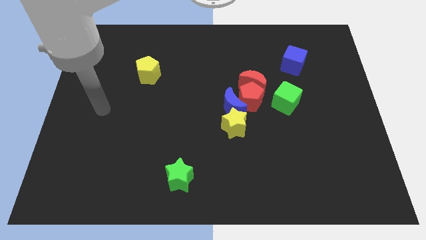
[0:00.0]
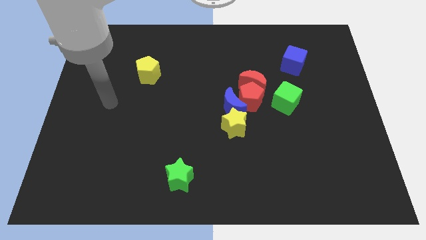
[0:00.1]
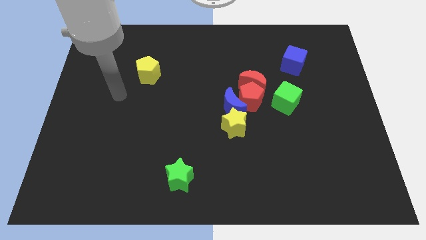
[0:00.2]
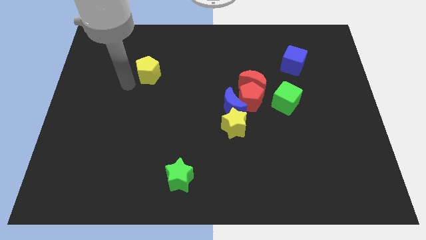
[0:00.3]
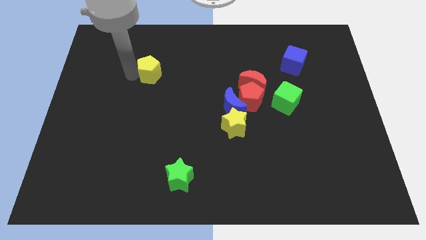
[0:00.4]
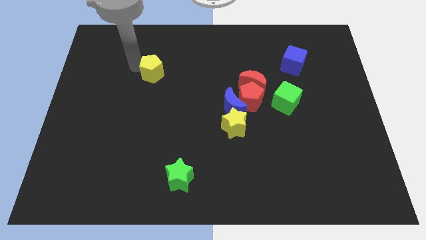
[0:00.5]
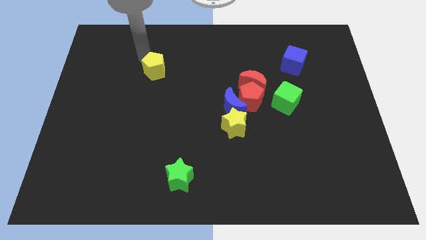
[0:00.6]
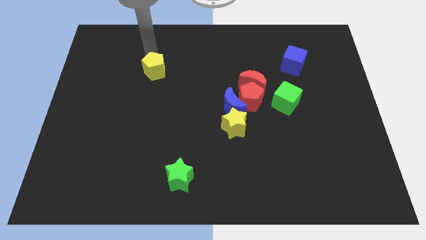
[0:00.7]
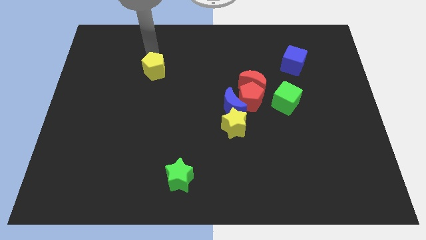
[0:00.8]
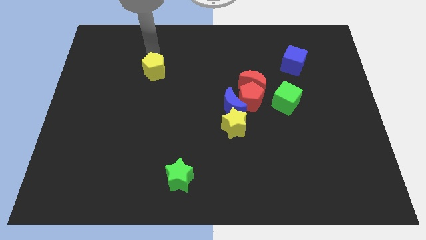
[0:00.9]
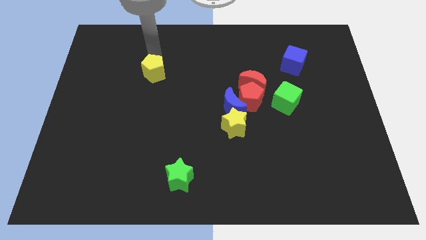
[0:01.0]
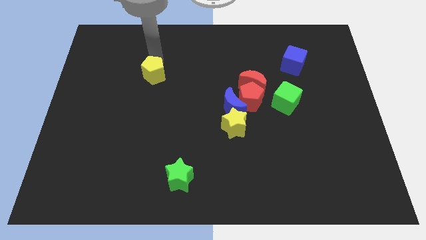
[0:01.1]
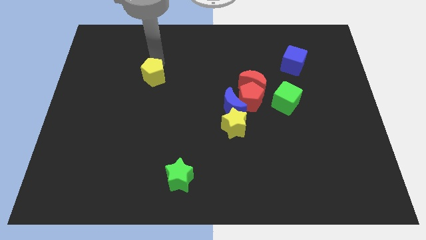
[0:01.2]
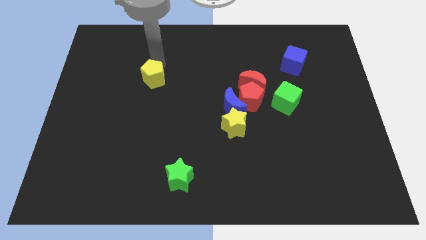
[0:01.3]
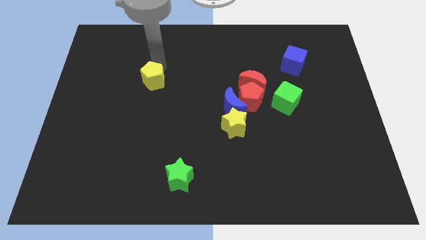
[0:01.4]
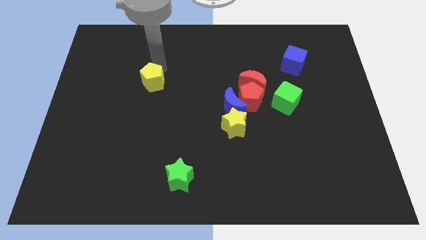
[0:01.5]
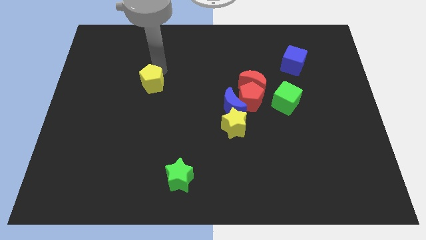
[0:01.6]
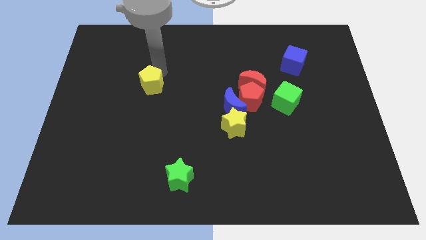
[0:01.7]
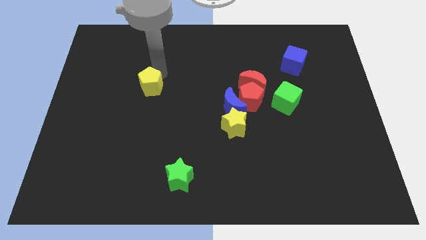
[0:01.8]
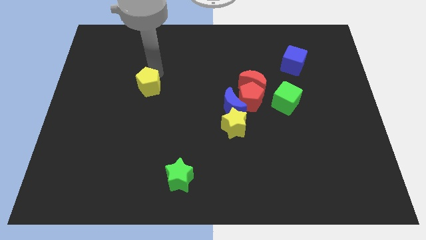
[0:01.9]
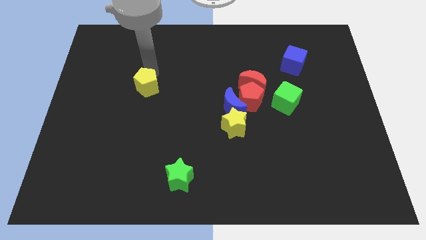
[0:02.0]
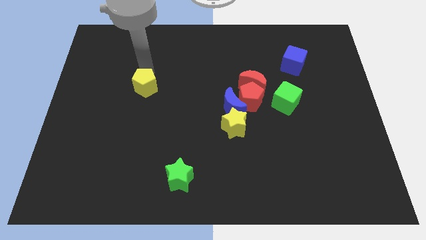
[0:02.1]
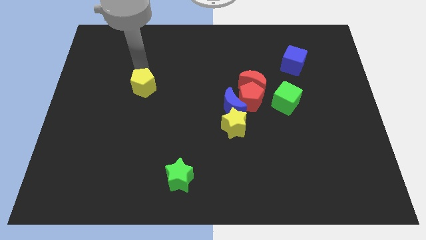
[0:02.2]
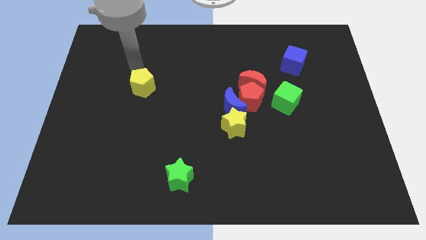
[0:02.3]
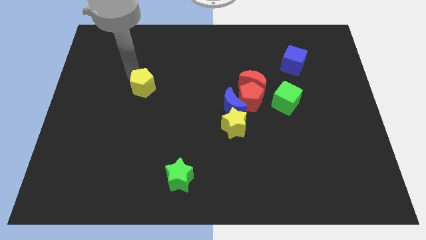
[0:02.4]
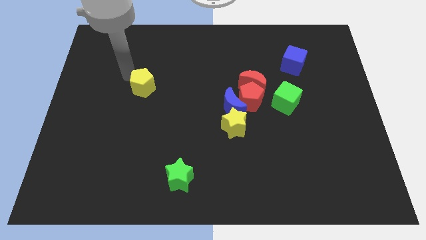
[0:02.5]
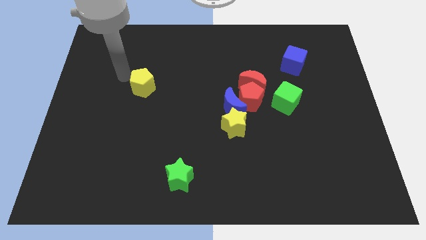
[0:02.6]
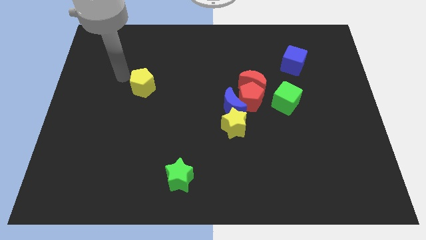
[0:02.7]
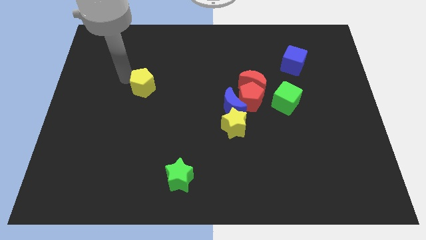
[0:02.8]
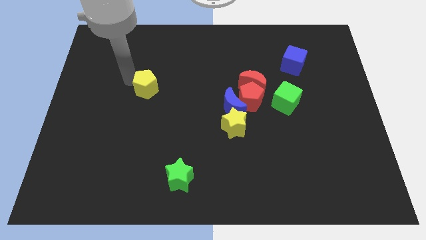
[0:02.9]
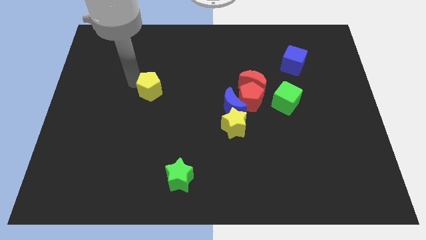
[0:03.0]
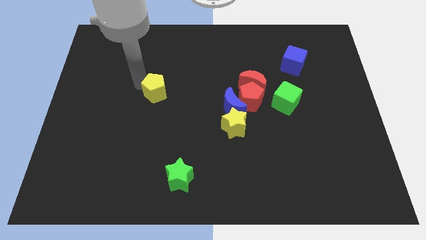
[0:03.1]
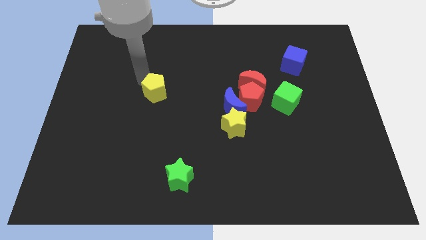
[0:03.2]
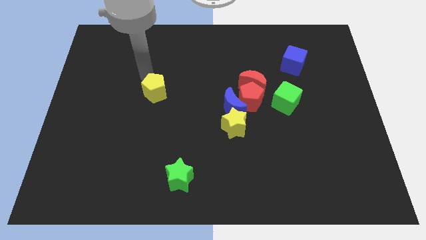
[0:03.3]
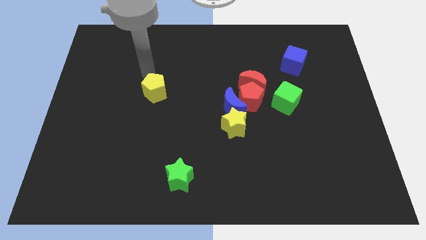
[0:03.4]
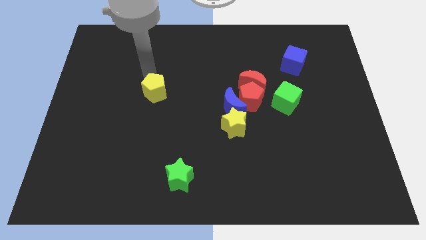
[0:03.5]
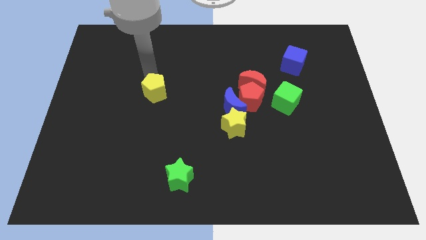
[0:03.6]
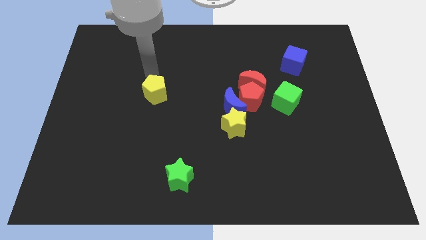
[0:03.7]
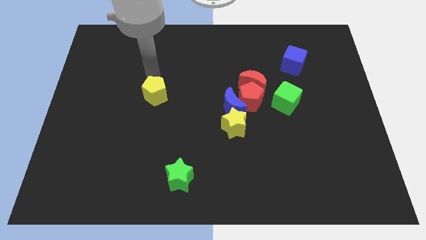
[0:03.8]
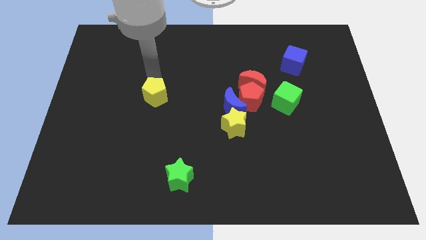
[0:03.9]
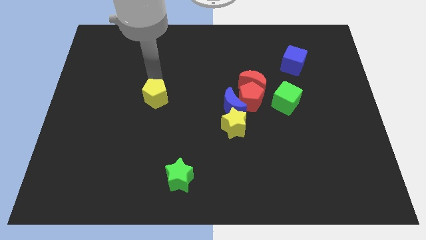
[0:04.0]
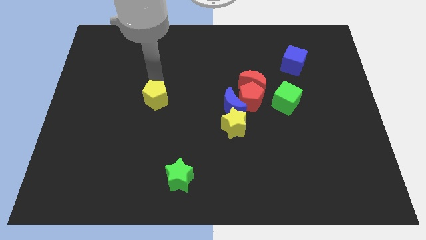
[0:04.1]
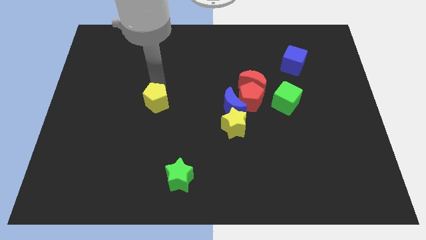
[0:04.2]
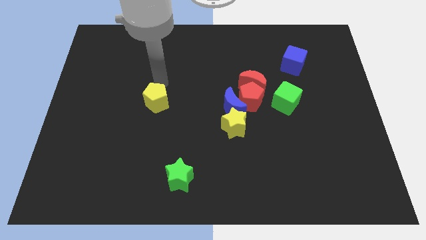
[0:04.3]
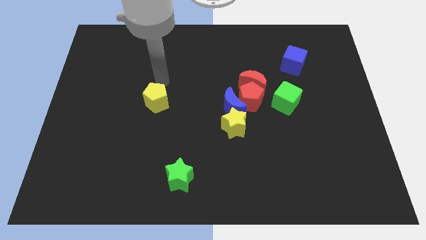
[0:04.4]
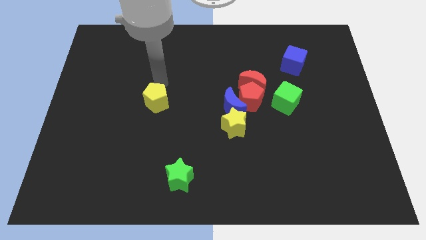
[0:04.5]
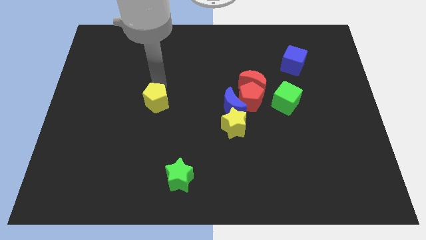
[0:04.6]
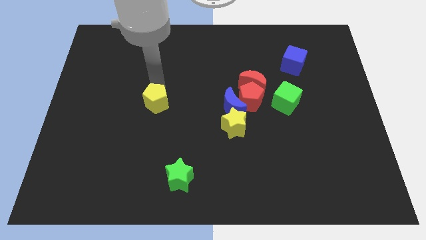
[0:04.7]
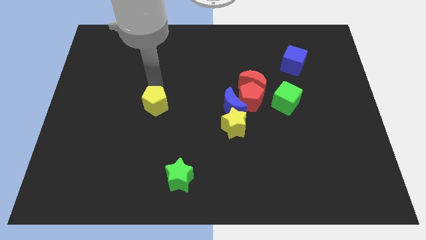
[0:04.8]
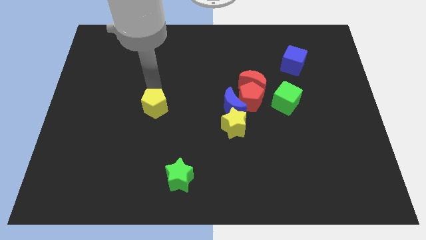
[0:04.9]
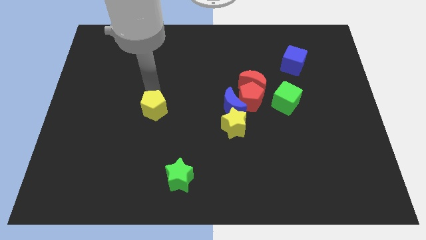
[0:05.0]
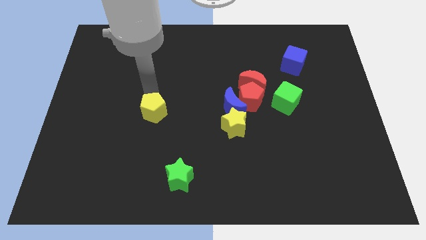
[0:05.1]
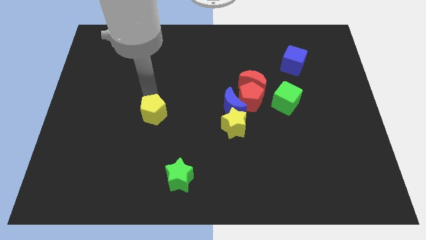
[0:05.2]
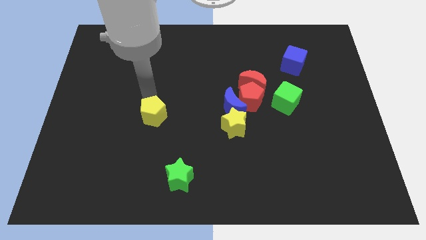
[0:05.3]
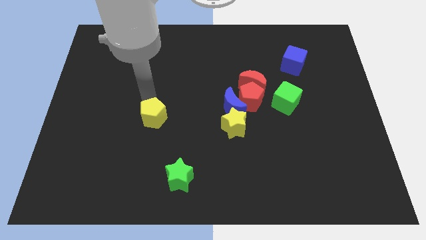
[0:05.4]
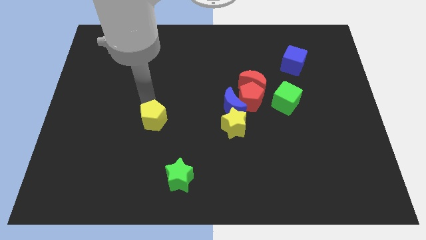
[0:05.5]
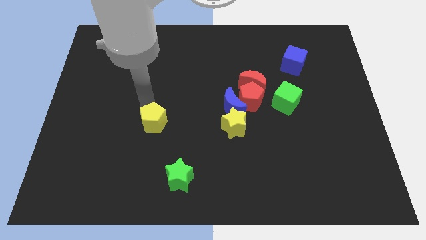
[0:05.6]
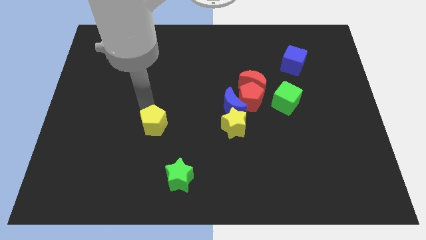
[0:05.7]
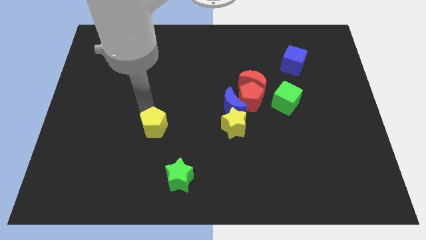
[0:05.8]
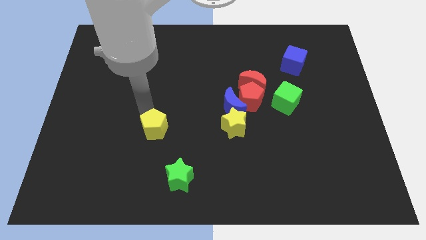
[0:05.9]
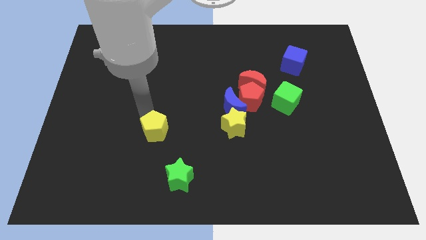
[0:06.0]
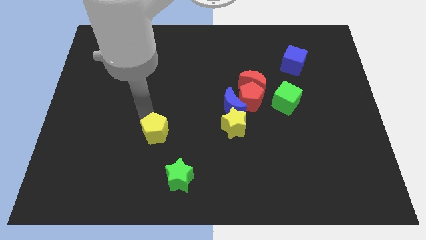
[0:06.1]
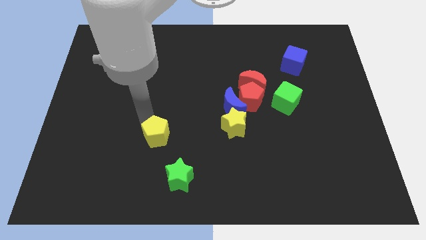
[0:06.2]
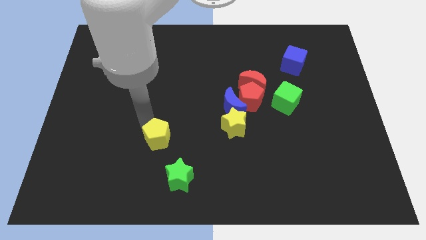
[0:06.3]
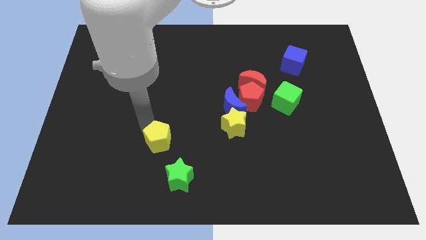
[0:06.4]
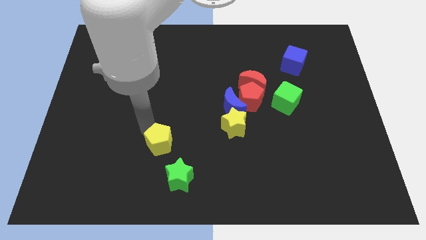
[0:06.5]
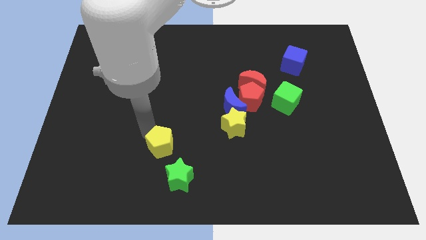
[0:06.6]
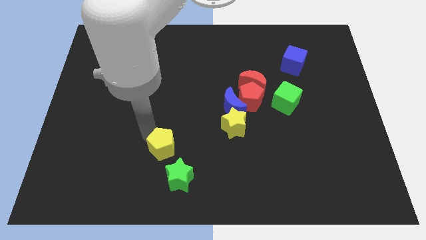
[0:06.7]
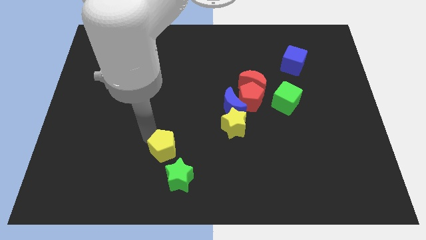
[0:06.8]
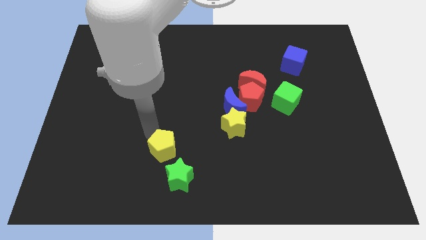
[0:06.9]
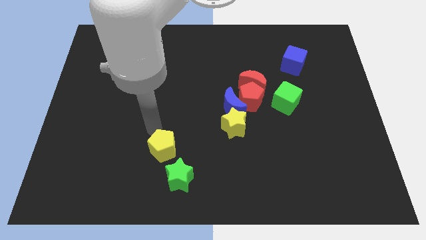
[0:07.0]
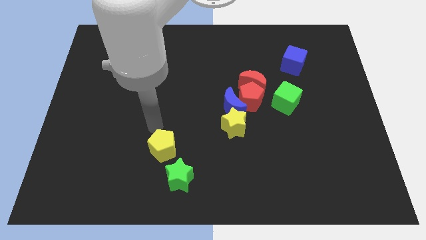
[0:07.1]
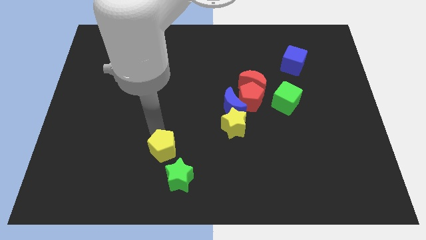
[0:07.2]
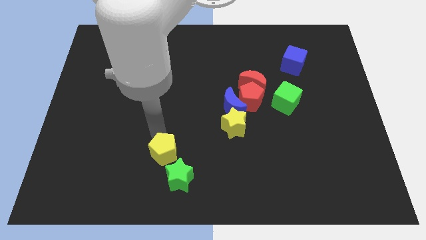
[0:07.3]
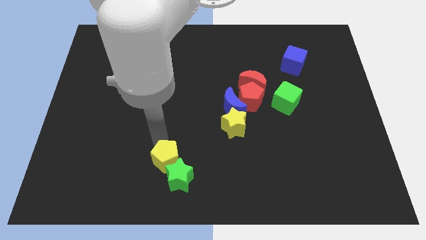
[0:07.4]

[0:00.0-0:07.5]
slide the yellow pentagon next to the green star
